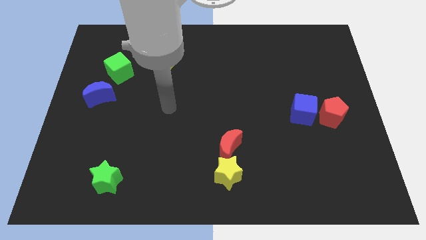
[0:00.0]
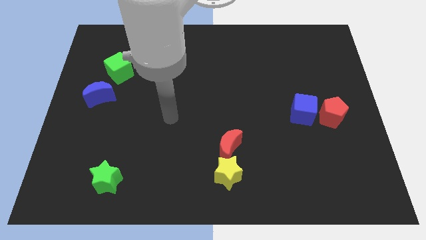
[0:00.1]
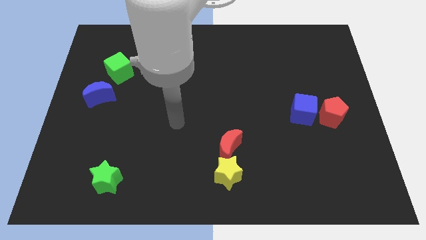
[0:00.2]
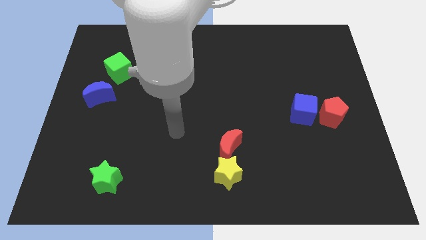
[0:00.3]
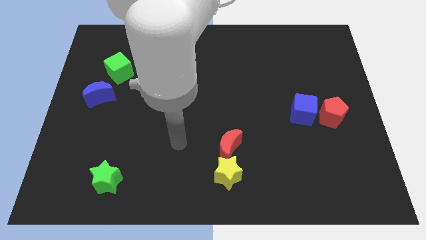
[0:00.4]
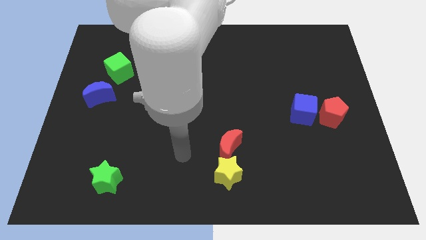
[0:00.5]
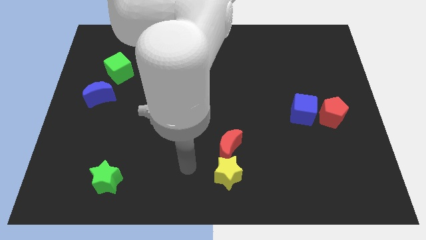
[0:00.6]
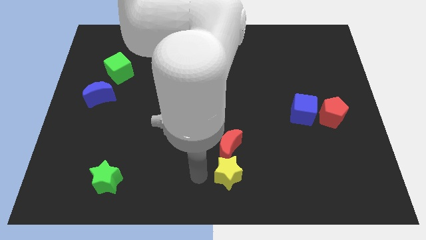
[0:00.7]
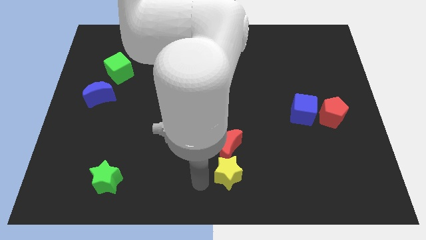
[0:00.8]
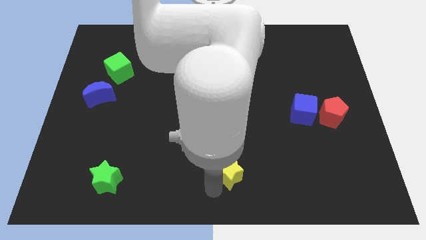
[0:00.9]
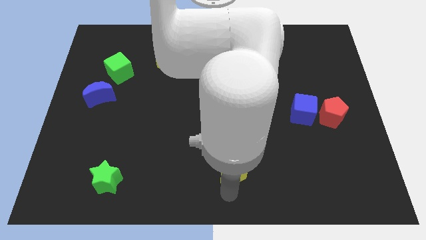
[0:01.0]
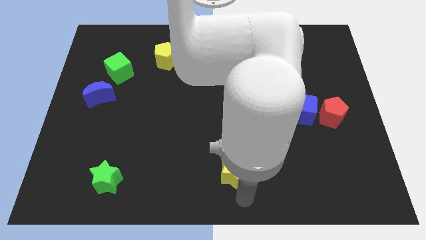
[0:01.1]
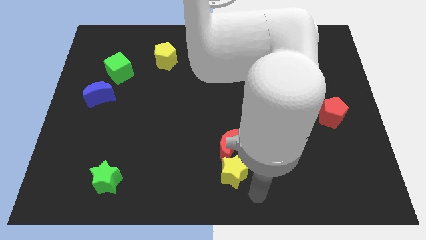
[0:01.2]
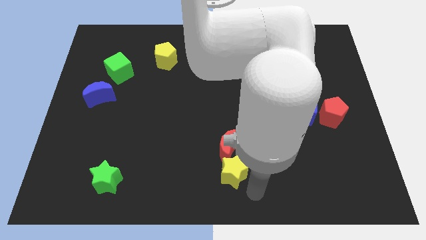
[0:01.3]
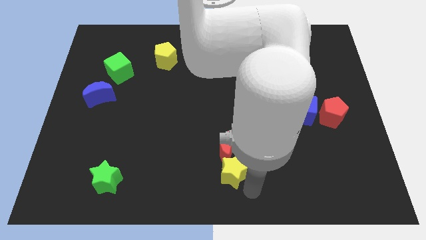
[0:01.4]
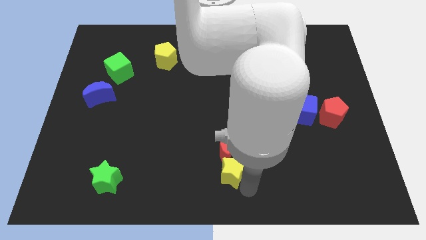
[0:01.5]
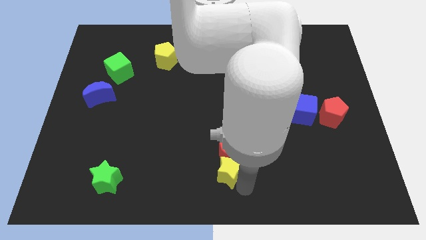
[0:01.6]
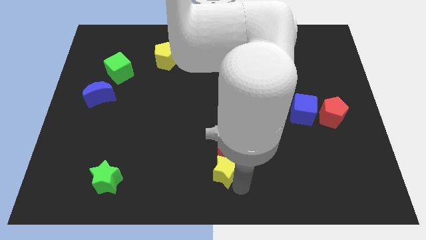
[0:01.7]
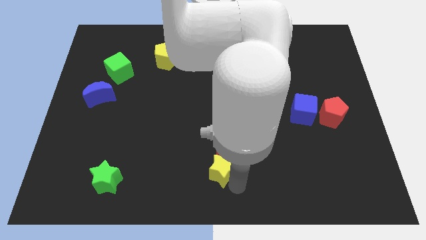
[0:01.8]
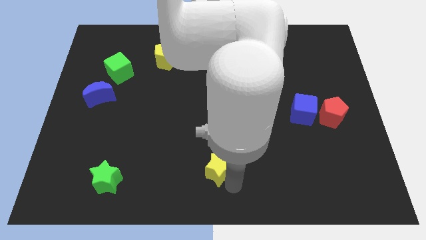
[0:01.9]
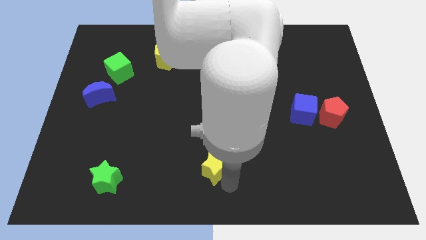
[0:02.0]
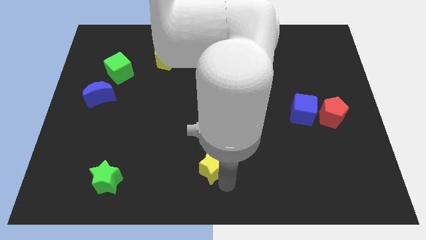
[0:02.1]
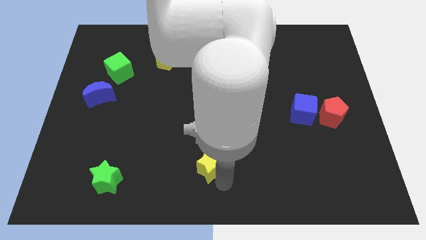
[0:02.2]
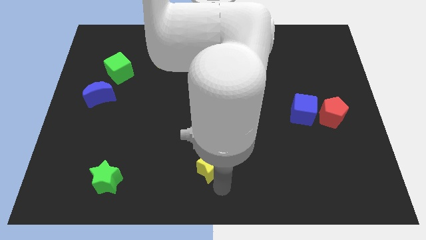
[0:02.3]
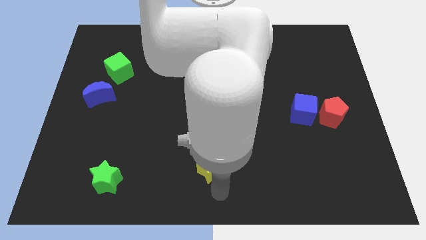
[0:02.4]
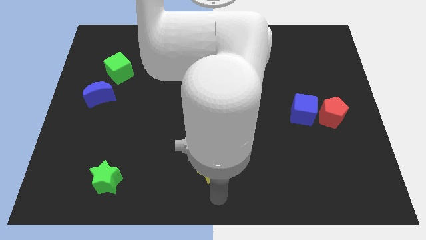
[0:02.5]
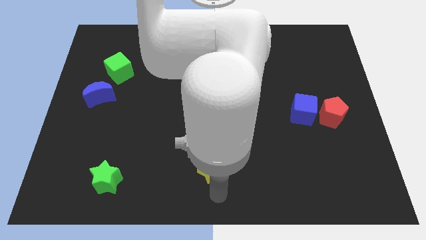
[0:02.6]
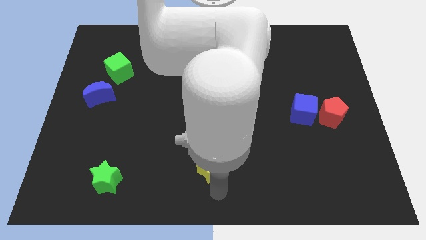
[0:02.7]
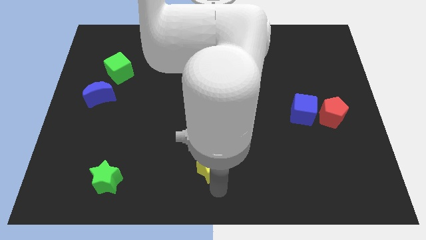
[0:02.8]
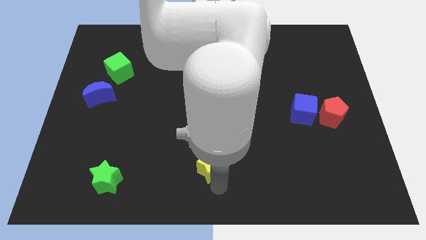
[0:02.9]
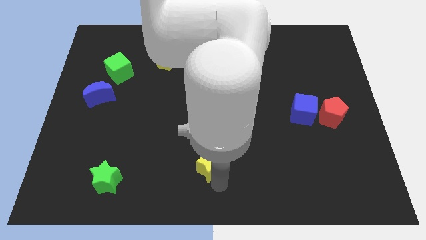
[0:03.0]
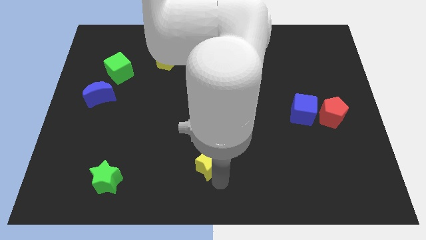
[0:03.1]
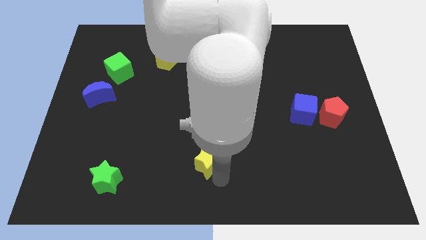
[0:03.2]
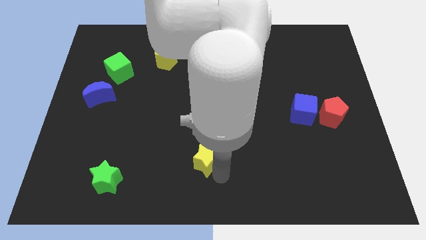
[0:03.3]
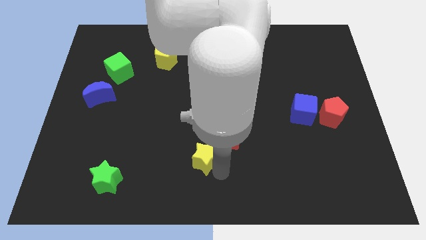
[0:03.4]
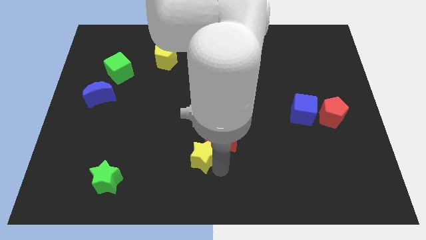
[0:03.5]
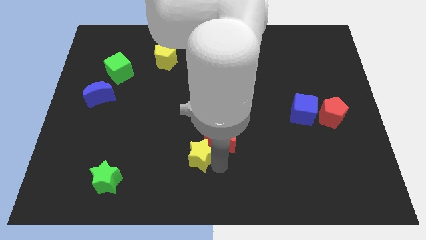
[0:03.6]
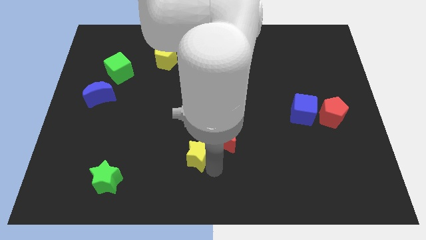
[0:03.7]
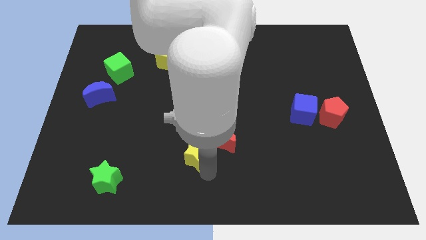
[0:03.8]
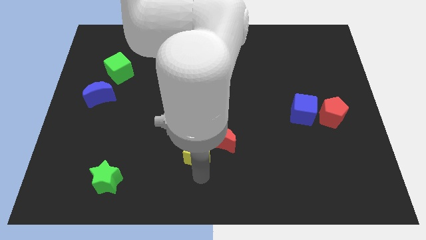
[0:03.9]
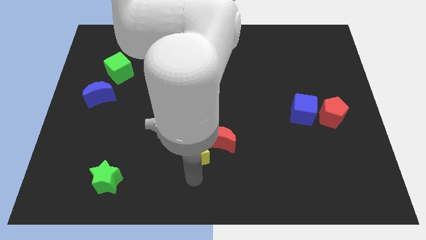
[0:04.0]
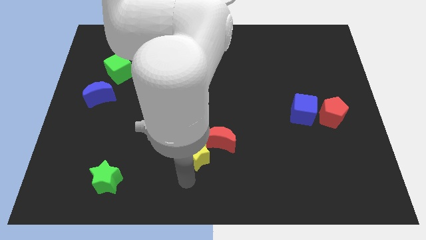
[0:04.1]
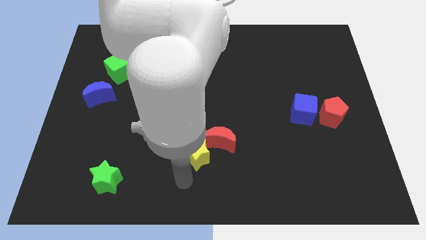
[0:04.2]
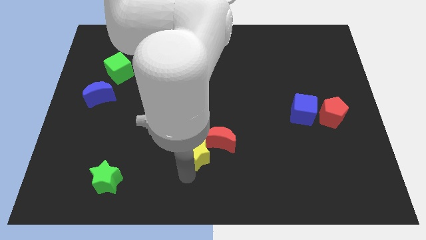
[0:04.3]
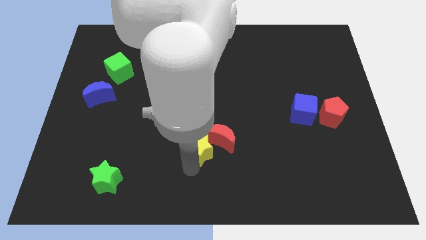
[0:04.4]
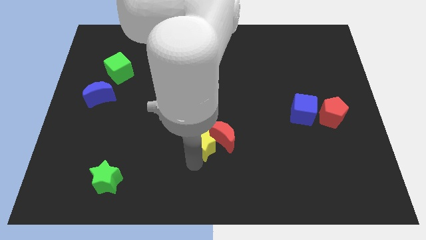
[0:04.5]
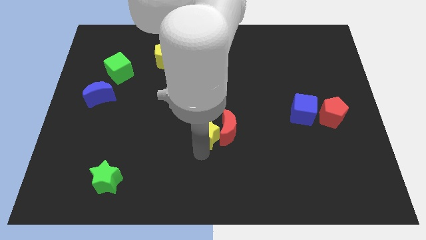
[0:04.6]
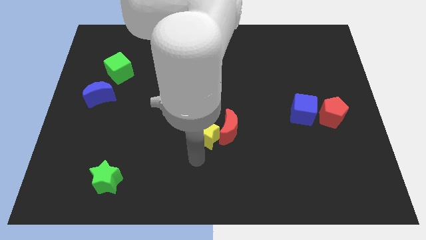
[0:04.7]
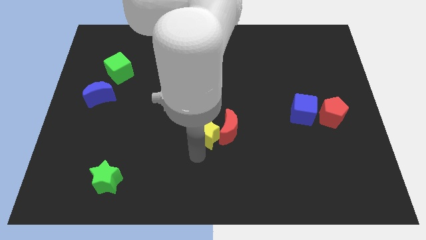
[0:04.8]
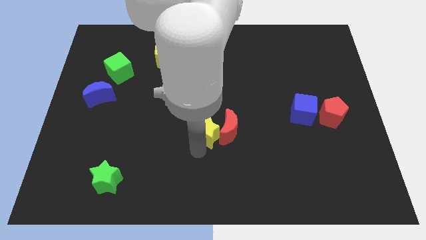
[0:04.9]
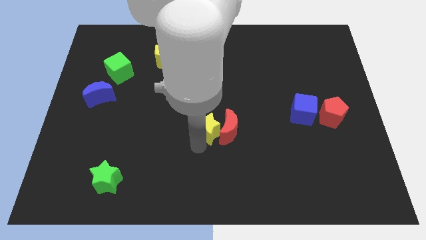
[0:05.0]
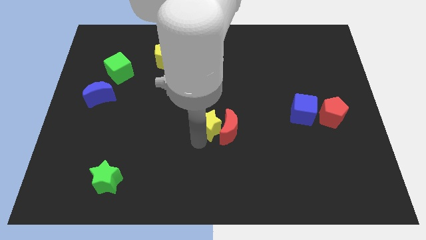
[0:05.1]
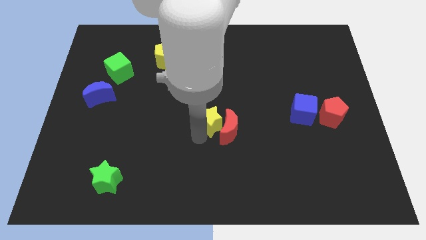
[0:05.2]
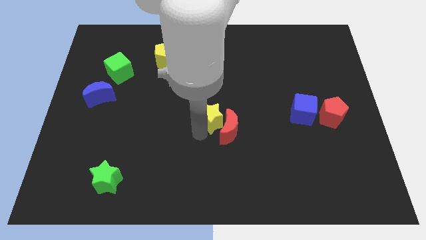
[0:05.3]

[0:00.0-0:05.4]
move the yellow star to the top of the red moon

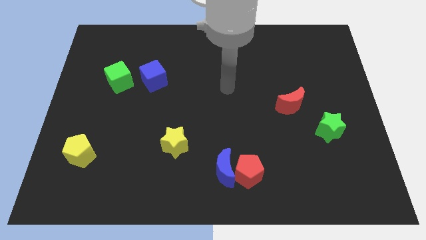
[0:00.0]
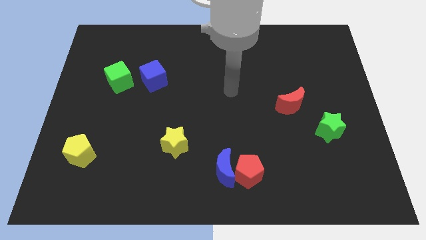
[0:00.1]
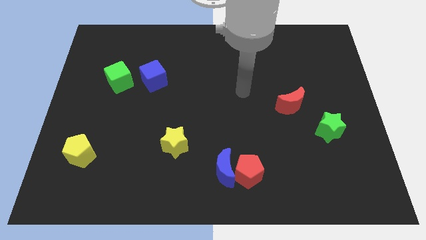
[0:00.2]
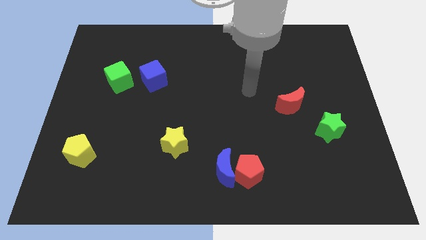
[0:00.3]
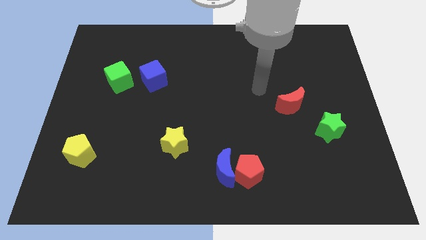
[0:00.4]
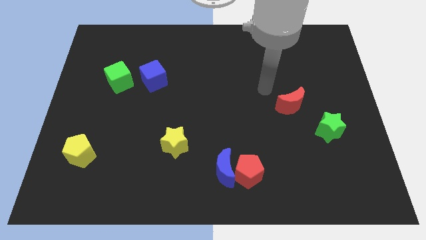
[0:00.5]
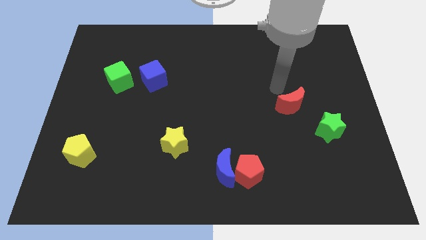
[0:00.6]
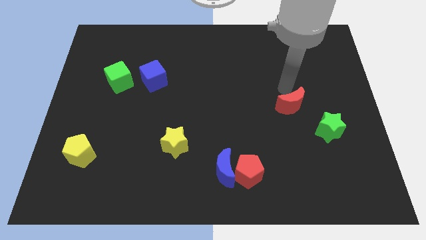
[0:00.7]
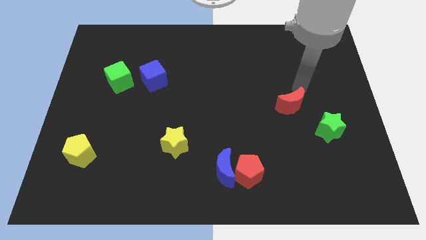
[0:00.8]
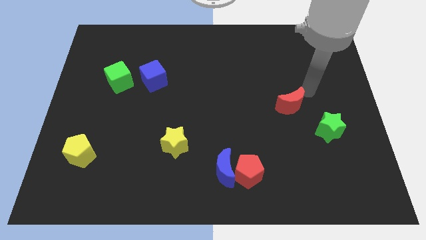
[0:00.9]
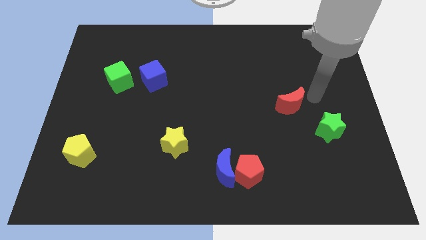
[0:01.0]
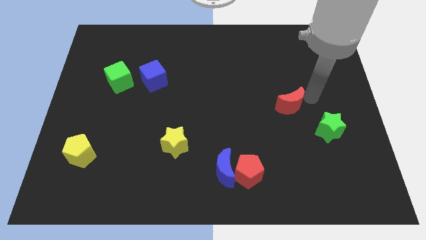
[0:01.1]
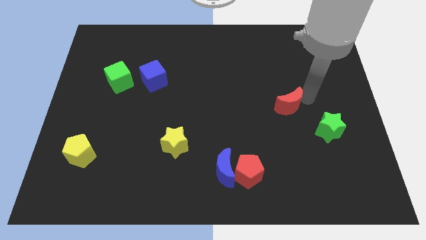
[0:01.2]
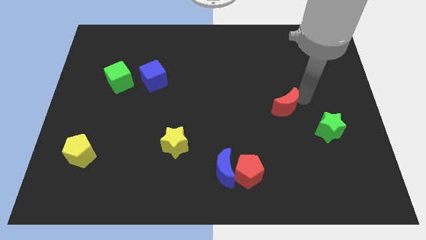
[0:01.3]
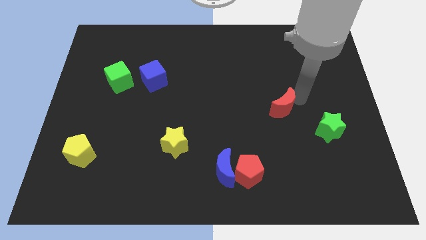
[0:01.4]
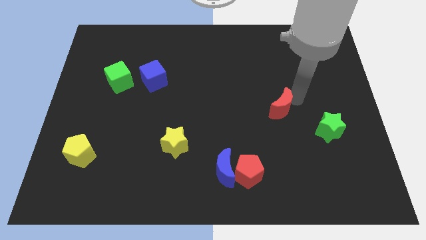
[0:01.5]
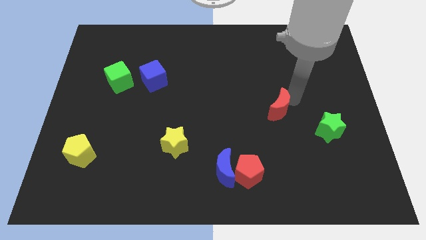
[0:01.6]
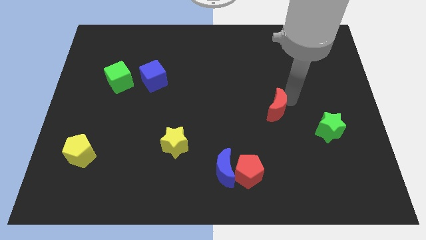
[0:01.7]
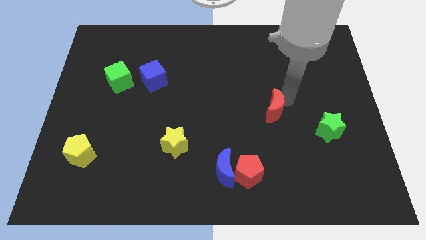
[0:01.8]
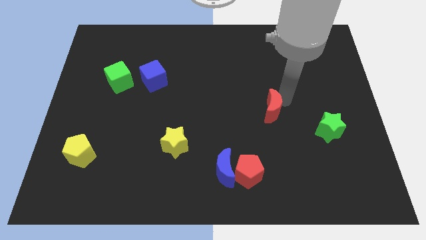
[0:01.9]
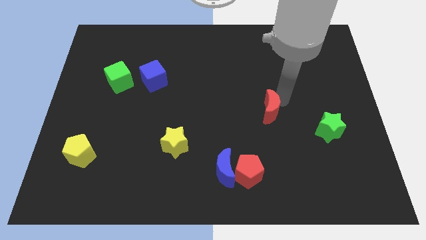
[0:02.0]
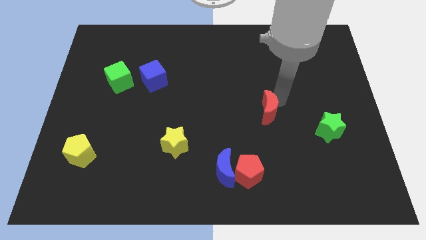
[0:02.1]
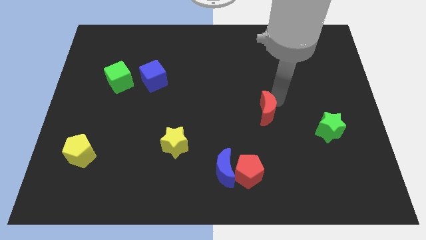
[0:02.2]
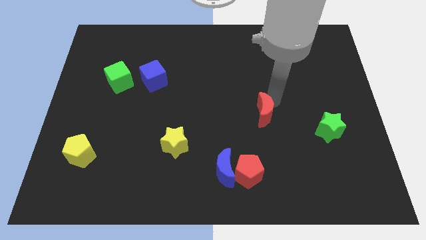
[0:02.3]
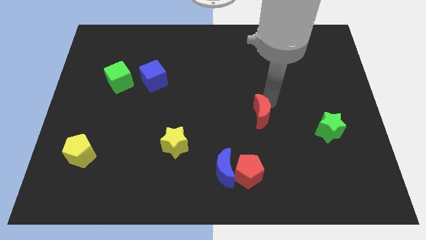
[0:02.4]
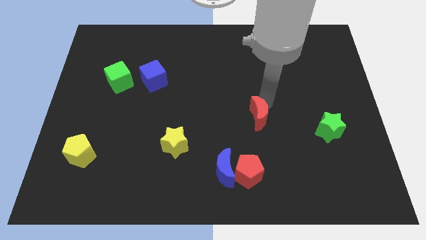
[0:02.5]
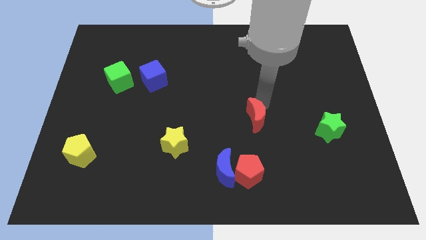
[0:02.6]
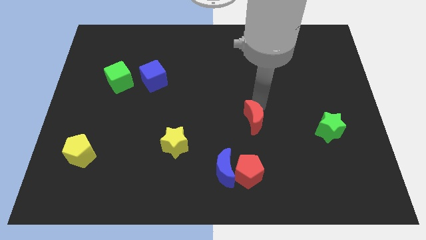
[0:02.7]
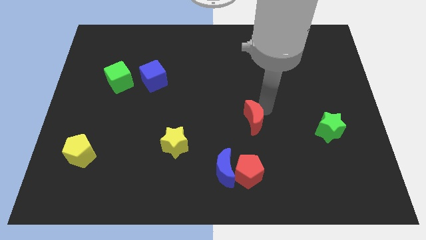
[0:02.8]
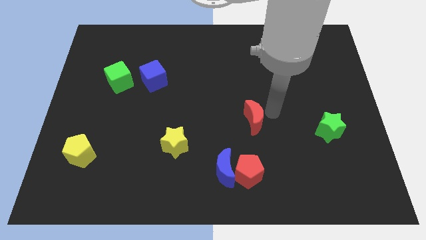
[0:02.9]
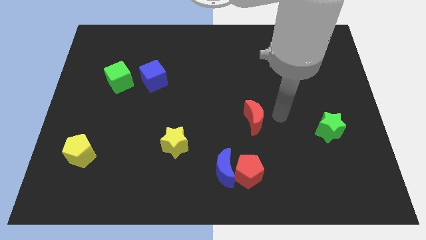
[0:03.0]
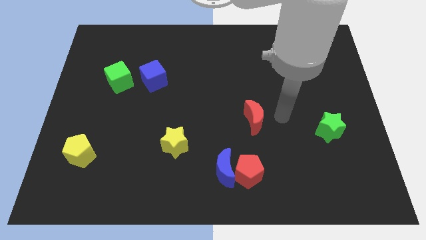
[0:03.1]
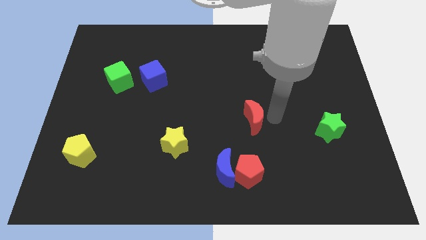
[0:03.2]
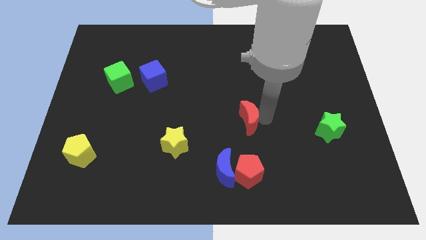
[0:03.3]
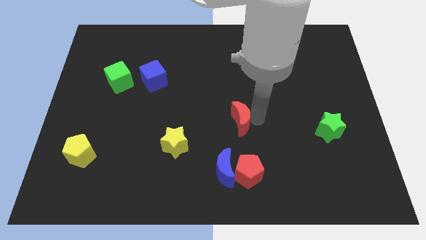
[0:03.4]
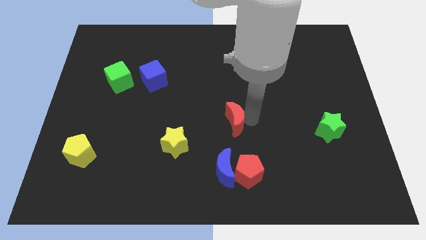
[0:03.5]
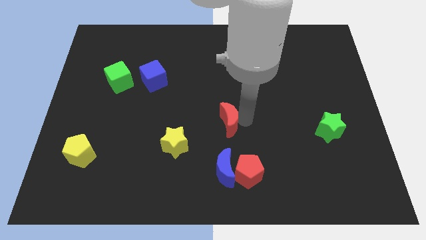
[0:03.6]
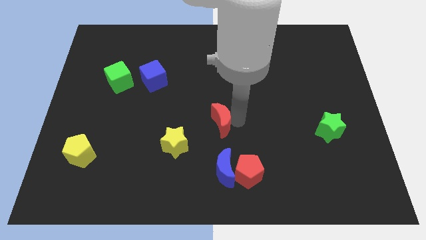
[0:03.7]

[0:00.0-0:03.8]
put the red moon to the top right of the yellow star
